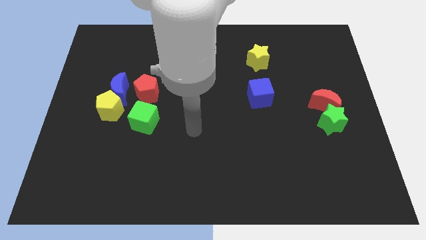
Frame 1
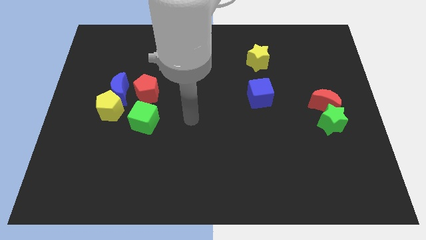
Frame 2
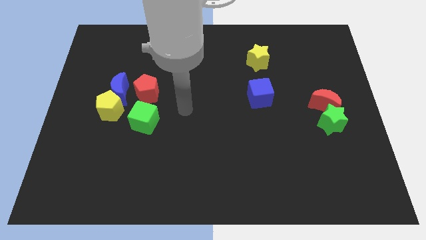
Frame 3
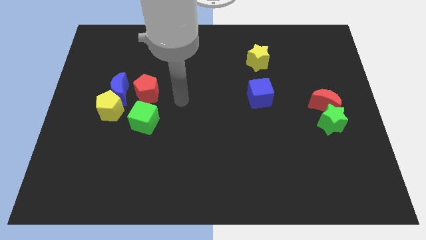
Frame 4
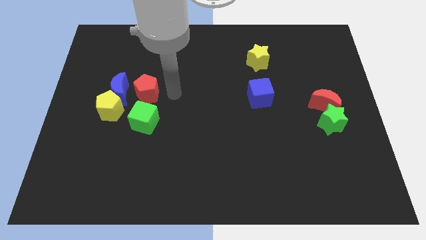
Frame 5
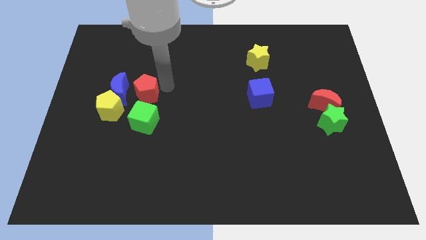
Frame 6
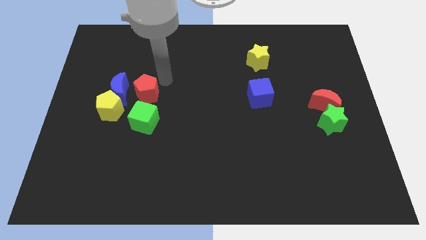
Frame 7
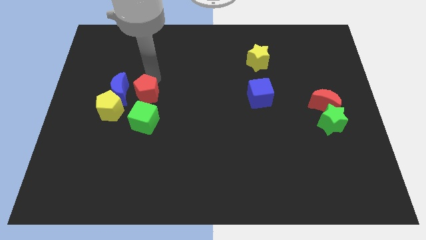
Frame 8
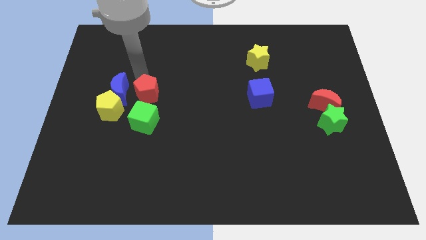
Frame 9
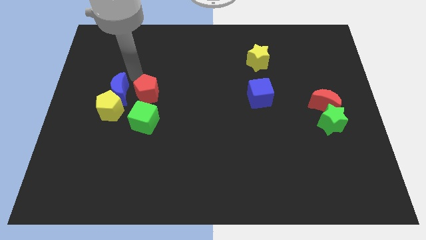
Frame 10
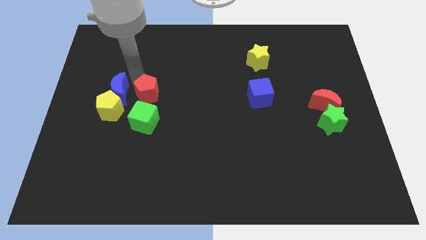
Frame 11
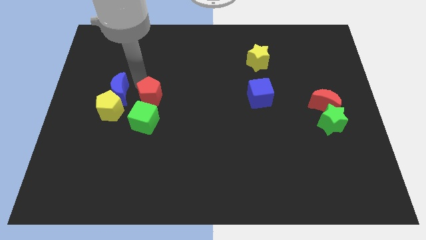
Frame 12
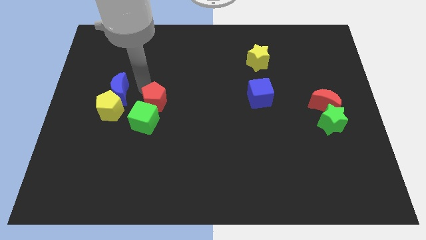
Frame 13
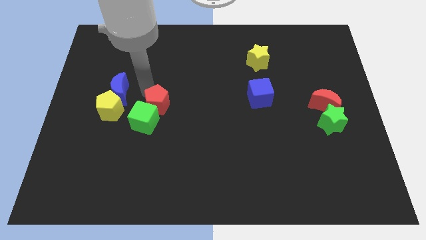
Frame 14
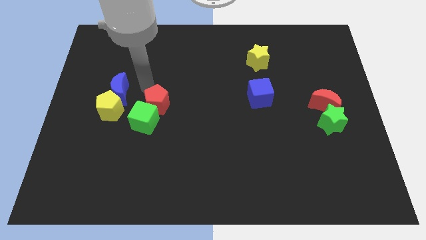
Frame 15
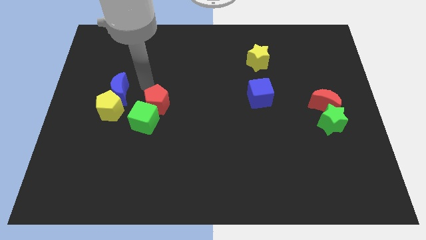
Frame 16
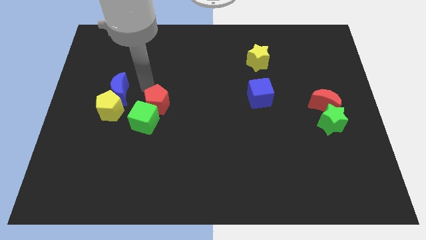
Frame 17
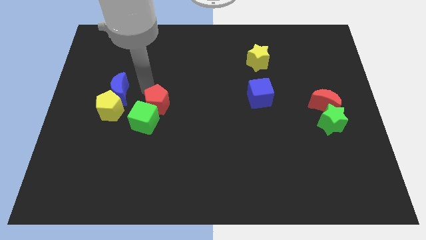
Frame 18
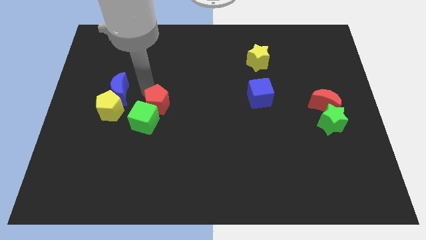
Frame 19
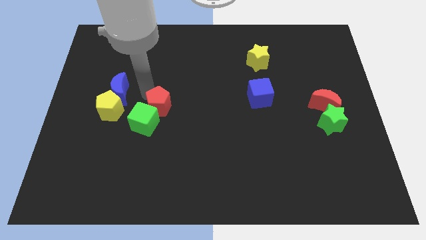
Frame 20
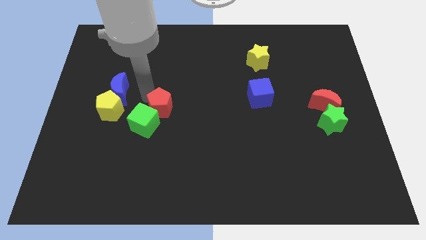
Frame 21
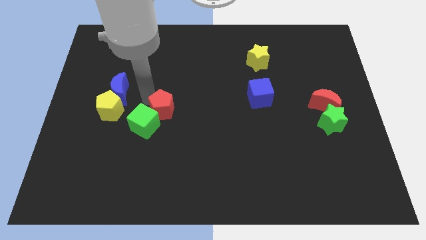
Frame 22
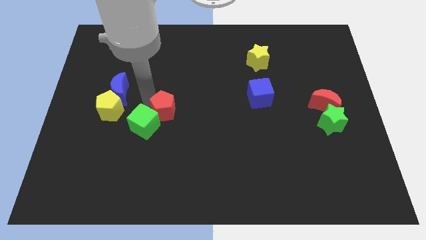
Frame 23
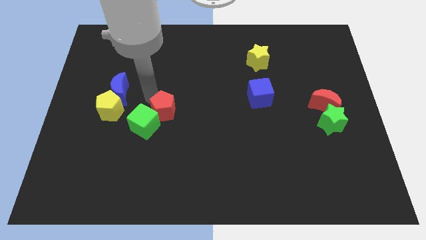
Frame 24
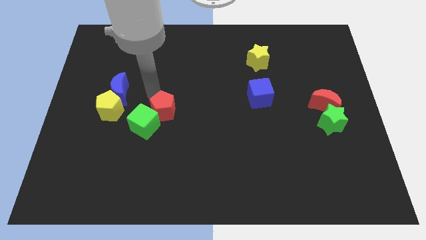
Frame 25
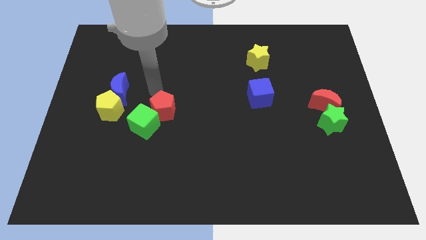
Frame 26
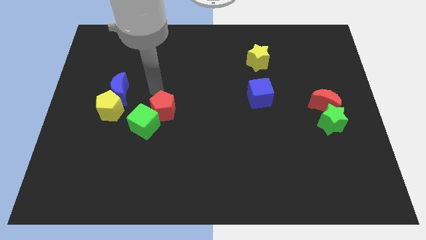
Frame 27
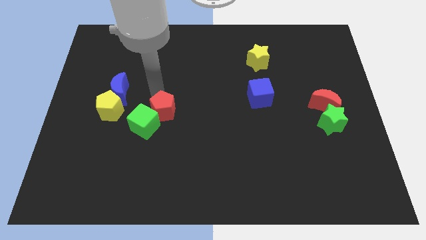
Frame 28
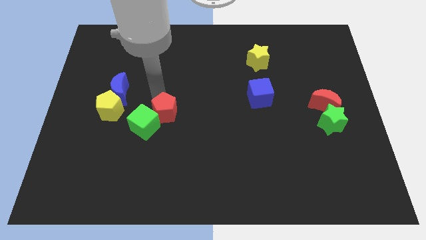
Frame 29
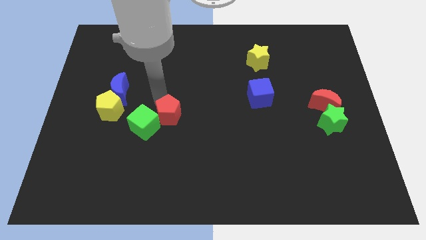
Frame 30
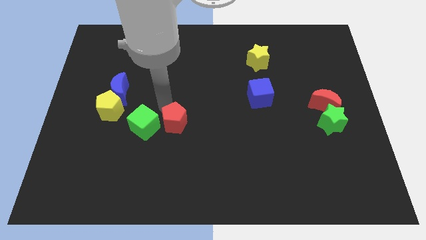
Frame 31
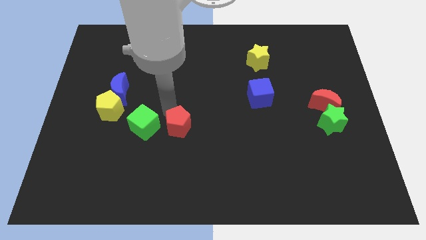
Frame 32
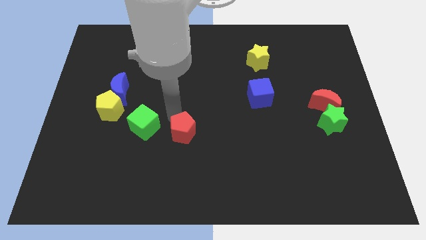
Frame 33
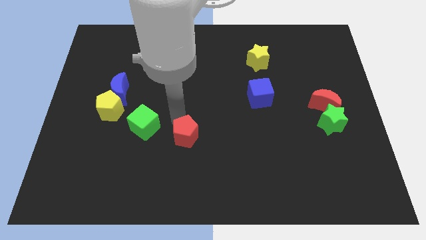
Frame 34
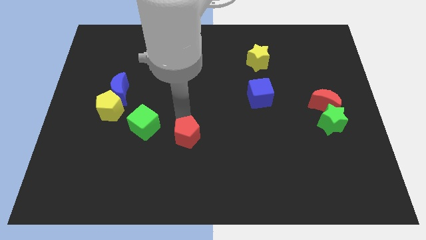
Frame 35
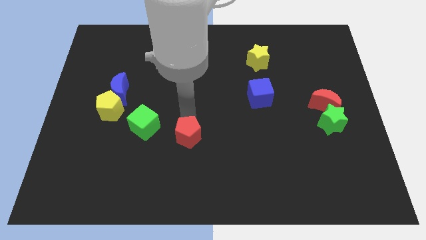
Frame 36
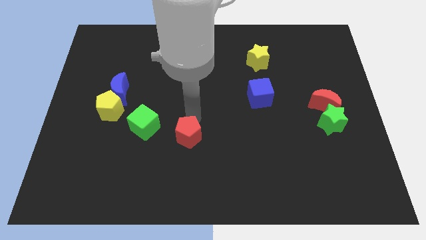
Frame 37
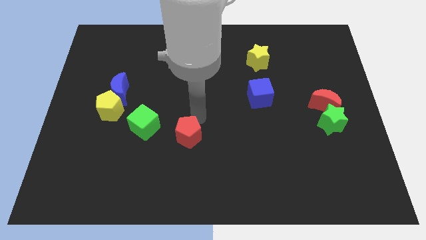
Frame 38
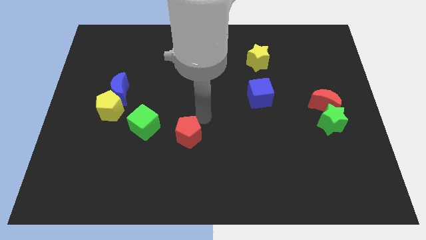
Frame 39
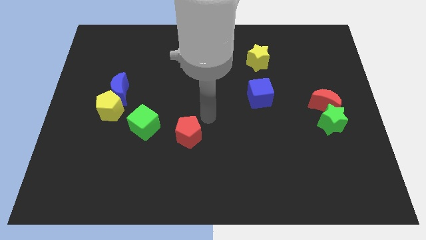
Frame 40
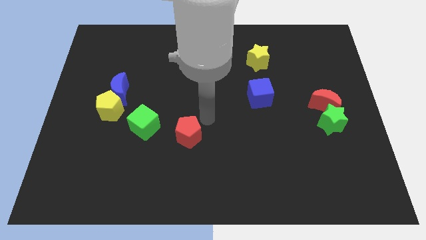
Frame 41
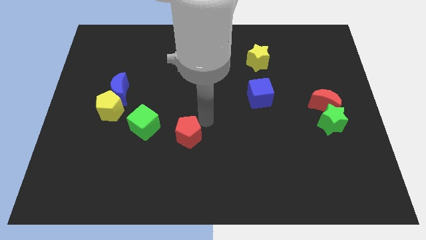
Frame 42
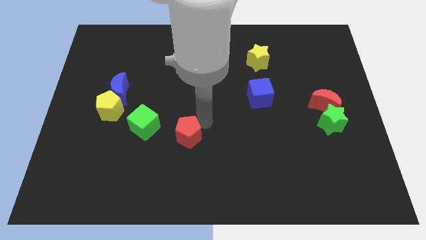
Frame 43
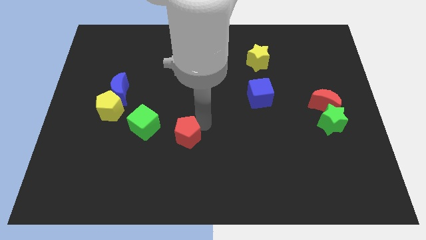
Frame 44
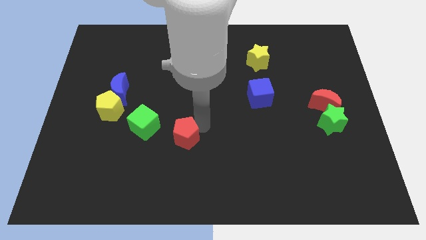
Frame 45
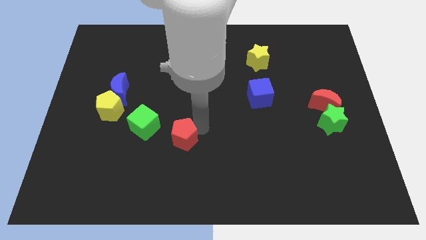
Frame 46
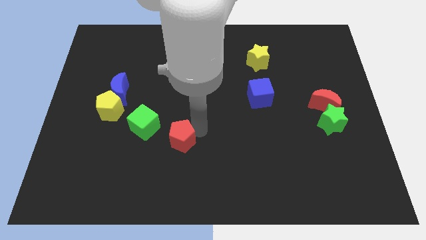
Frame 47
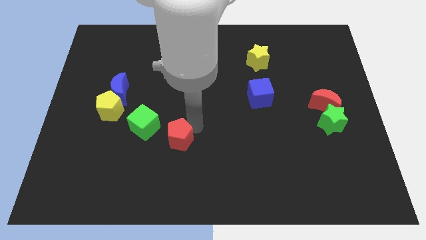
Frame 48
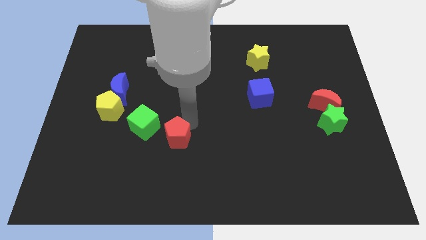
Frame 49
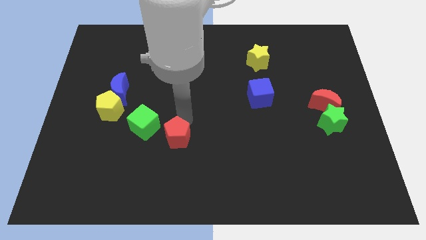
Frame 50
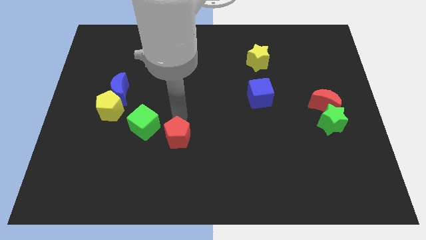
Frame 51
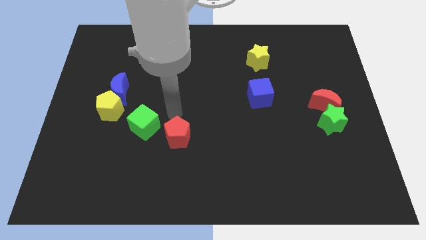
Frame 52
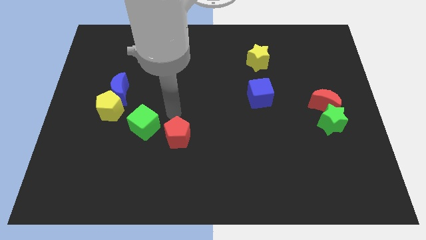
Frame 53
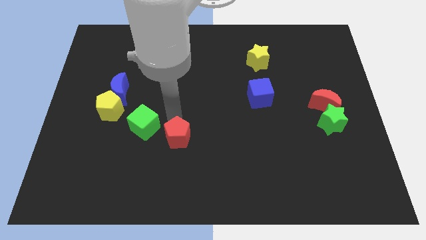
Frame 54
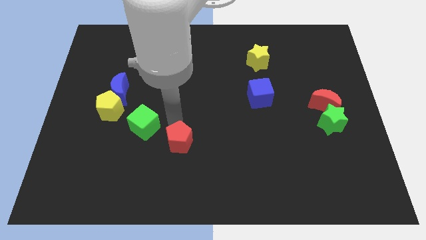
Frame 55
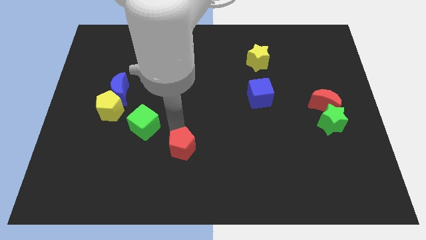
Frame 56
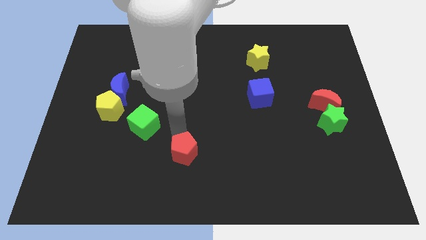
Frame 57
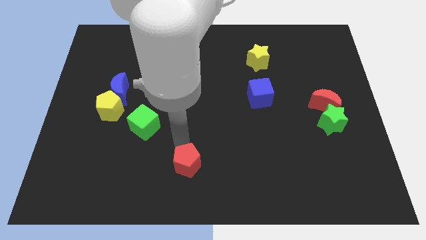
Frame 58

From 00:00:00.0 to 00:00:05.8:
slide the red pentagon to the bottom side
